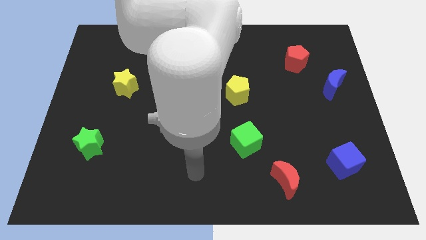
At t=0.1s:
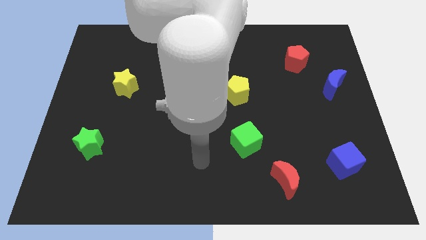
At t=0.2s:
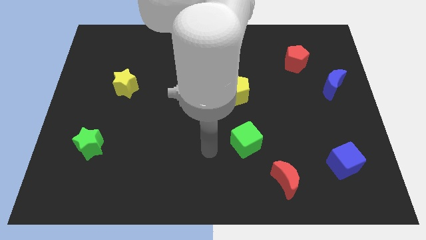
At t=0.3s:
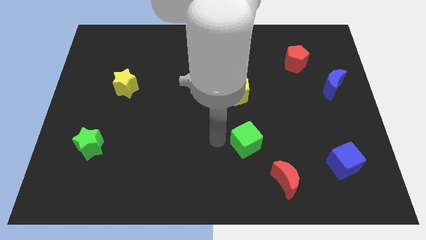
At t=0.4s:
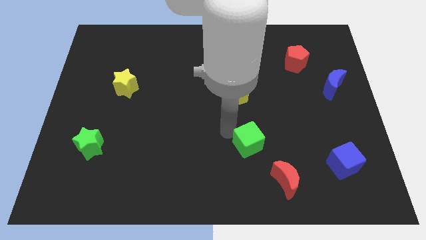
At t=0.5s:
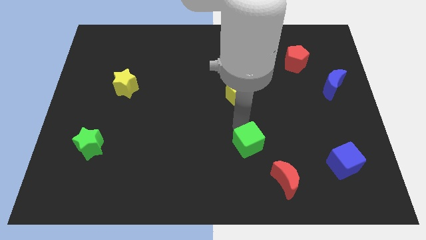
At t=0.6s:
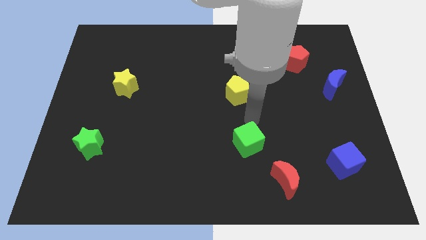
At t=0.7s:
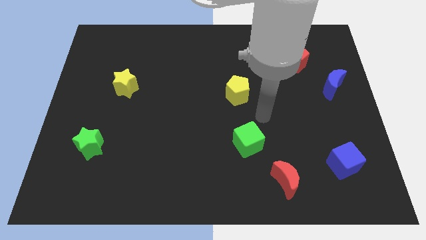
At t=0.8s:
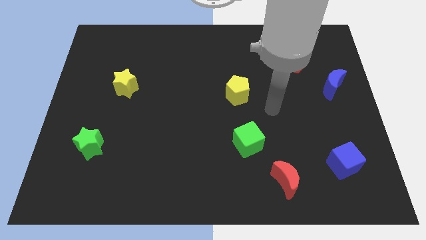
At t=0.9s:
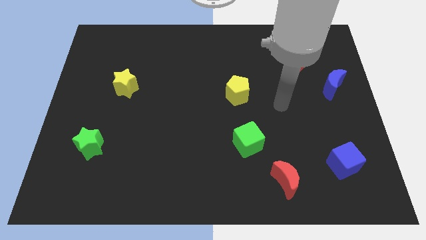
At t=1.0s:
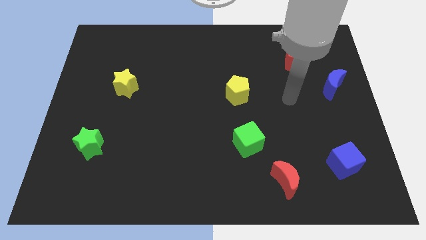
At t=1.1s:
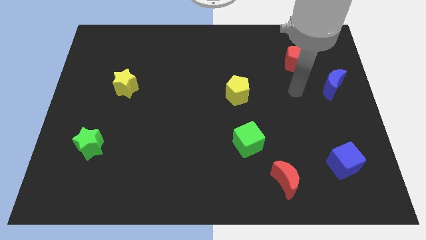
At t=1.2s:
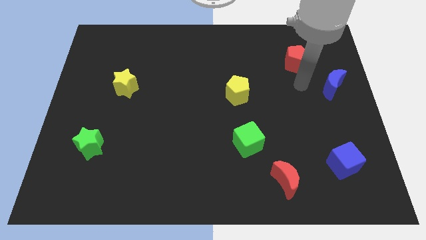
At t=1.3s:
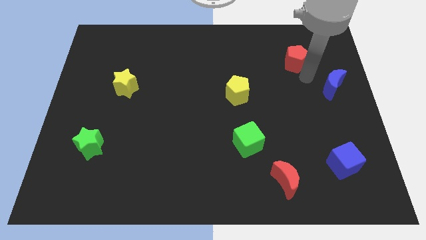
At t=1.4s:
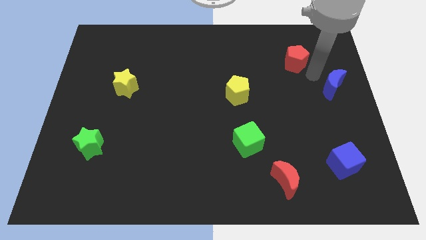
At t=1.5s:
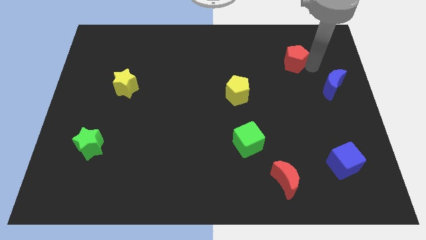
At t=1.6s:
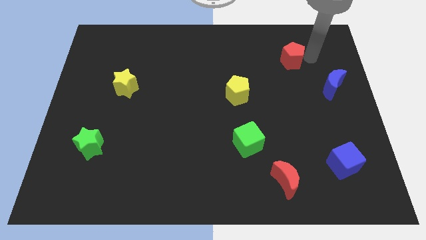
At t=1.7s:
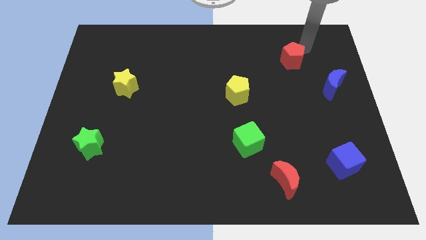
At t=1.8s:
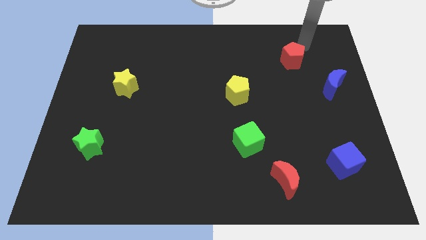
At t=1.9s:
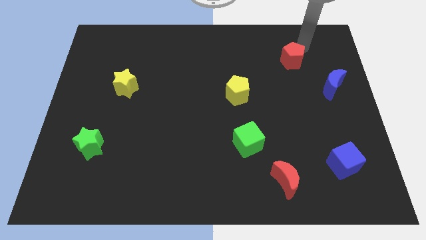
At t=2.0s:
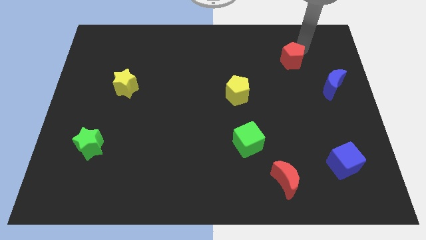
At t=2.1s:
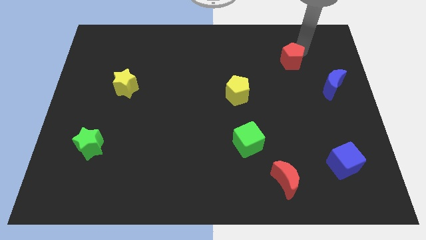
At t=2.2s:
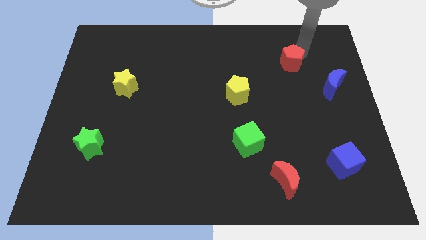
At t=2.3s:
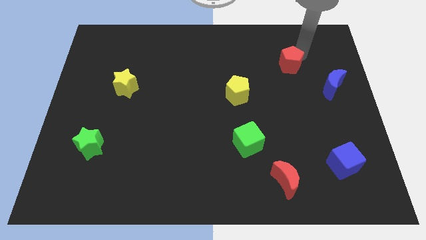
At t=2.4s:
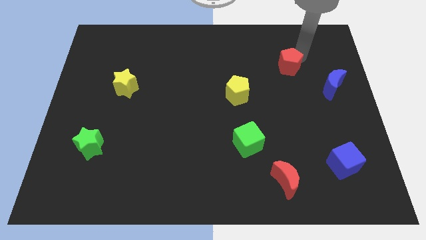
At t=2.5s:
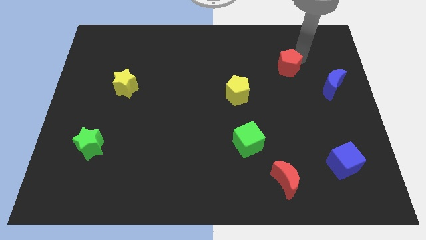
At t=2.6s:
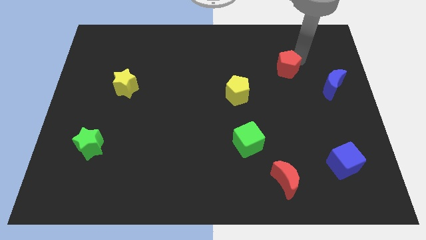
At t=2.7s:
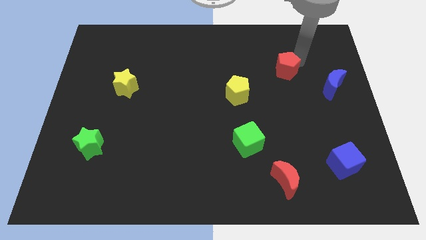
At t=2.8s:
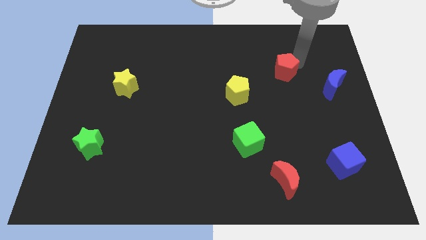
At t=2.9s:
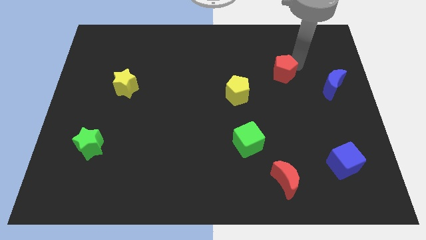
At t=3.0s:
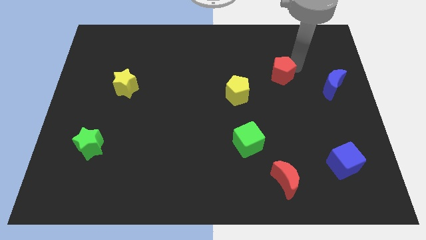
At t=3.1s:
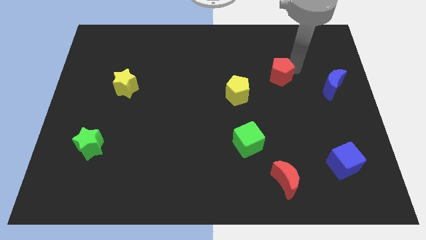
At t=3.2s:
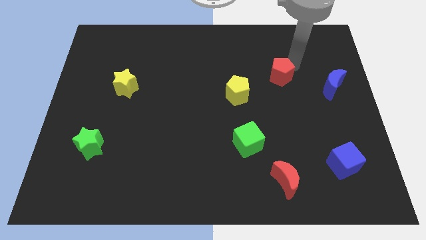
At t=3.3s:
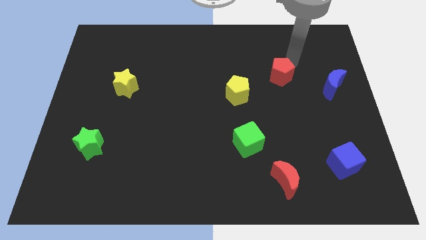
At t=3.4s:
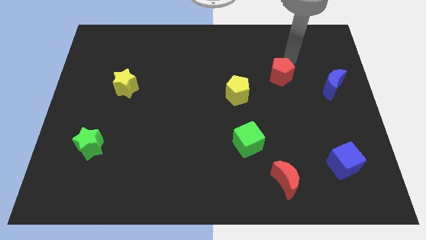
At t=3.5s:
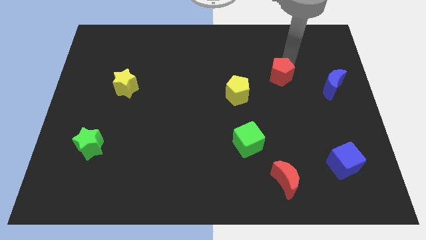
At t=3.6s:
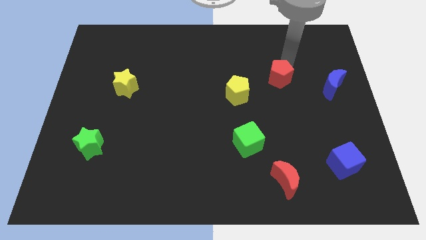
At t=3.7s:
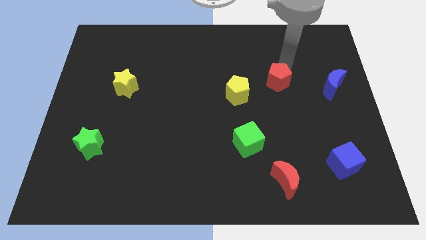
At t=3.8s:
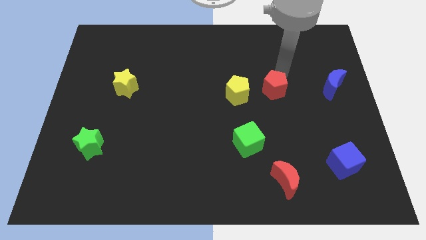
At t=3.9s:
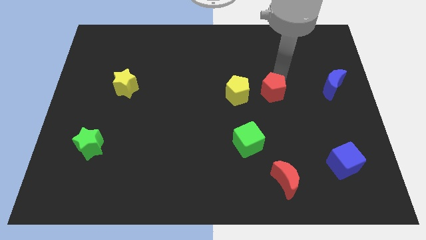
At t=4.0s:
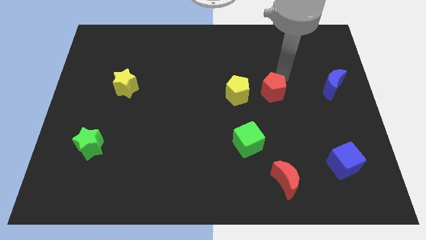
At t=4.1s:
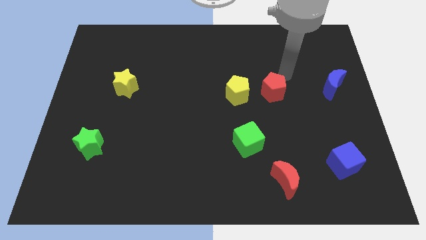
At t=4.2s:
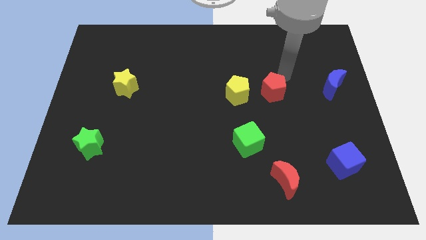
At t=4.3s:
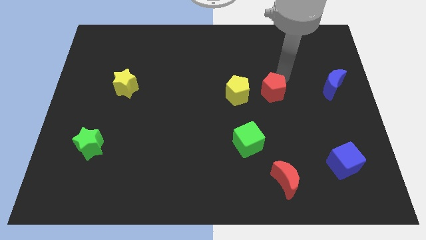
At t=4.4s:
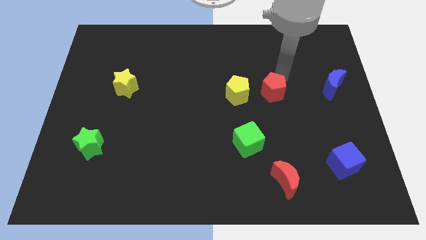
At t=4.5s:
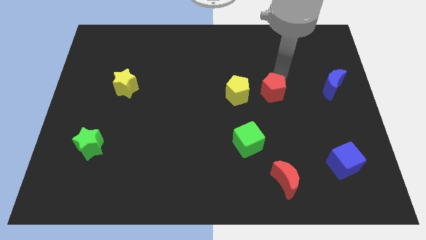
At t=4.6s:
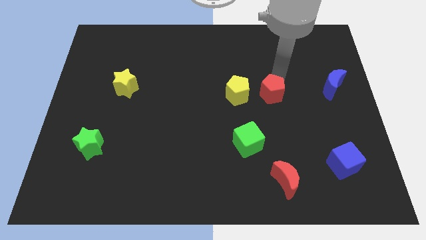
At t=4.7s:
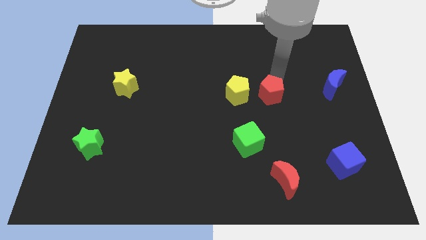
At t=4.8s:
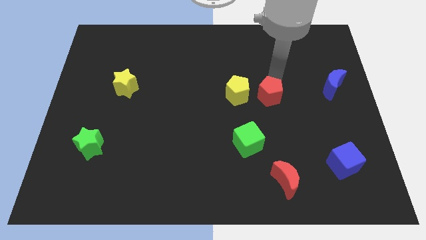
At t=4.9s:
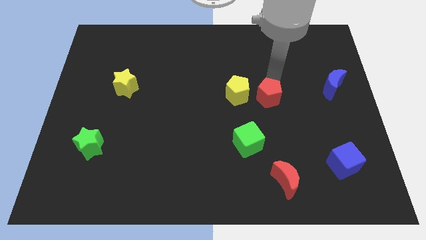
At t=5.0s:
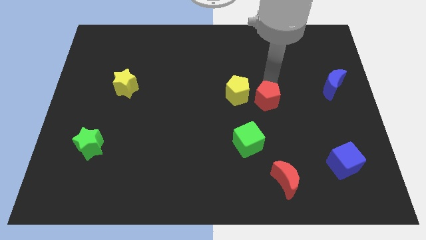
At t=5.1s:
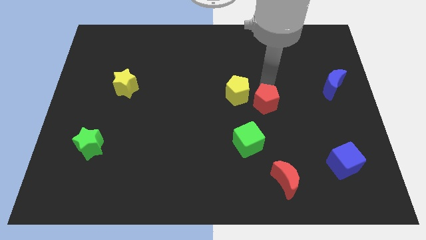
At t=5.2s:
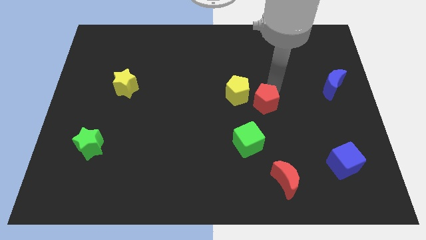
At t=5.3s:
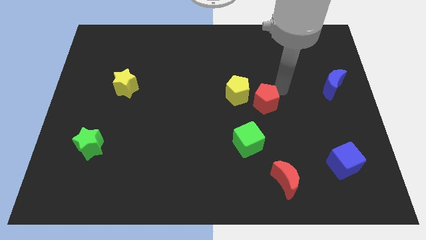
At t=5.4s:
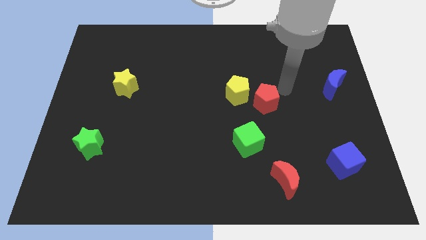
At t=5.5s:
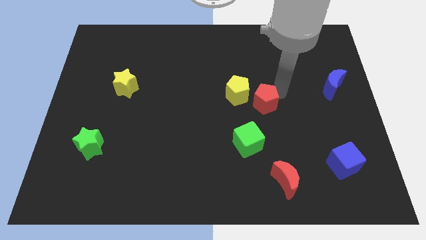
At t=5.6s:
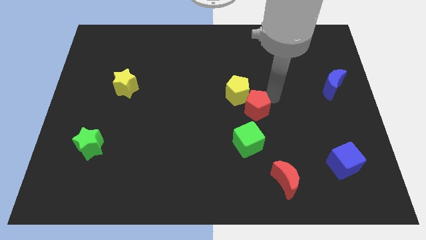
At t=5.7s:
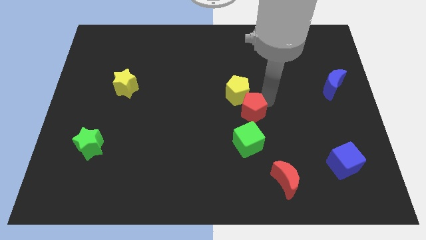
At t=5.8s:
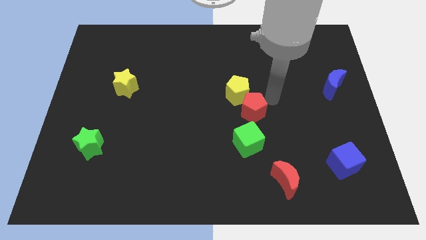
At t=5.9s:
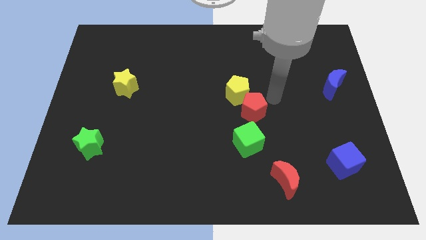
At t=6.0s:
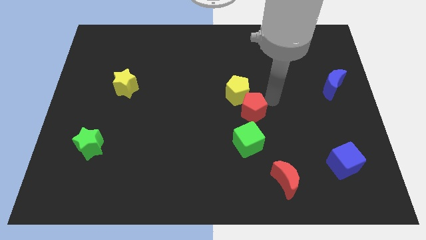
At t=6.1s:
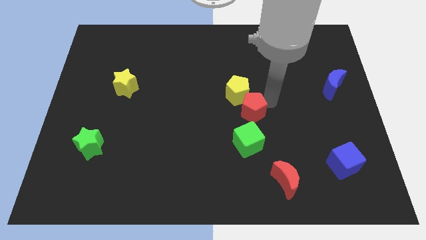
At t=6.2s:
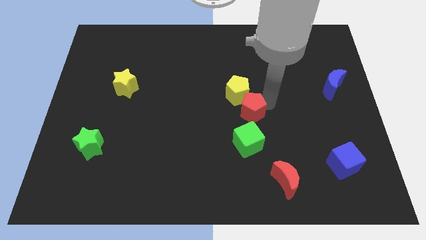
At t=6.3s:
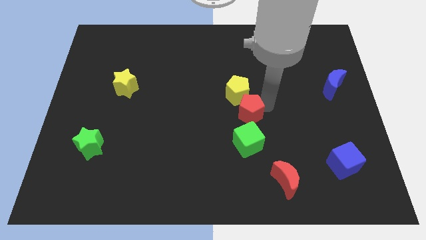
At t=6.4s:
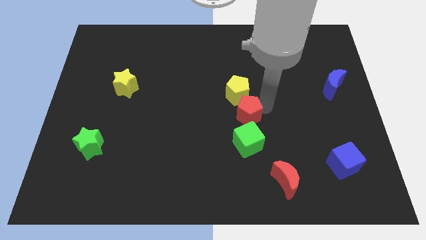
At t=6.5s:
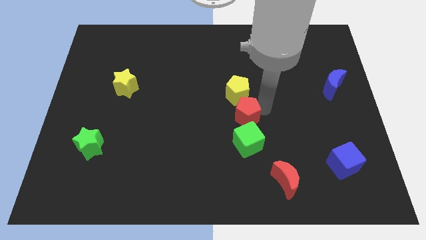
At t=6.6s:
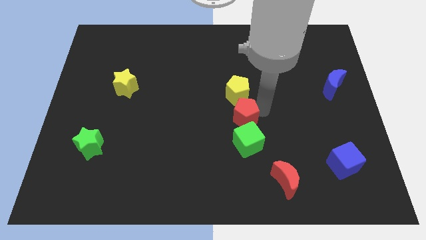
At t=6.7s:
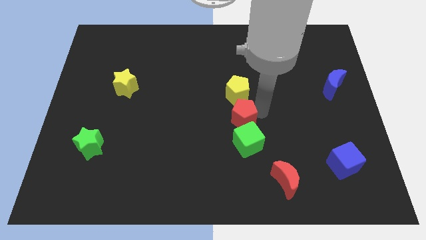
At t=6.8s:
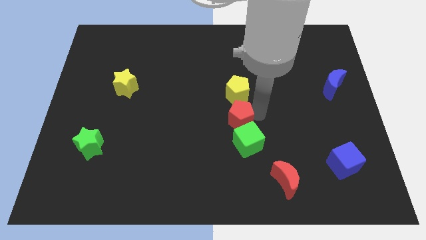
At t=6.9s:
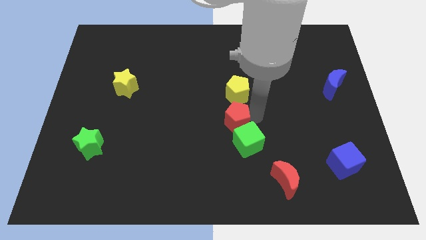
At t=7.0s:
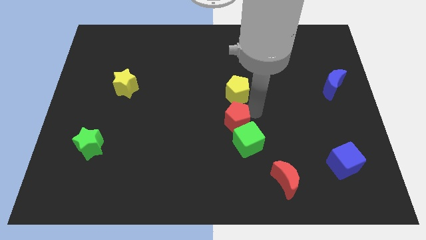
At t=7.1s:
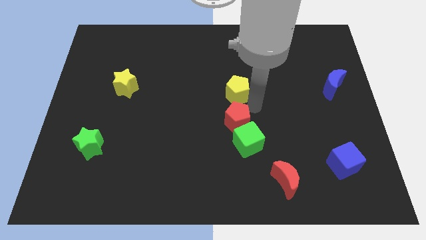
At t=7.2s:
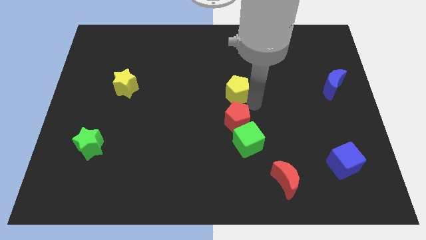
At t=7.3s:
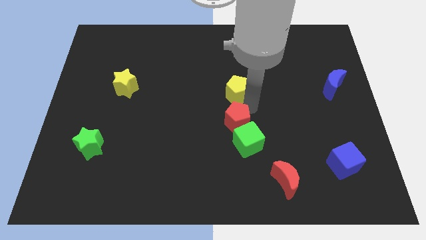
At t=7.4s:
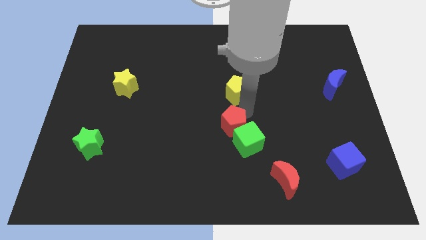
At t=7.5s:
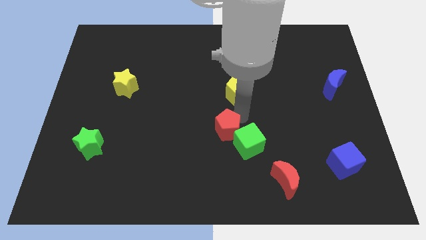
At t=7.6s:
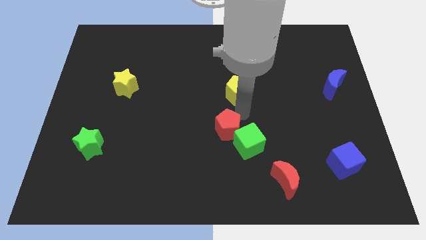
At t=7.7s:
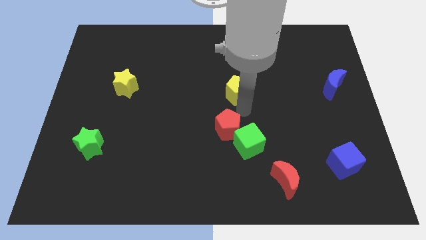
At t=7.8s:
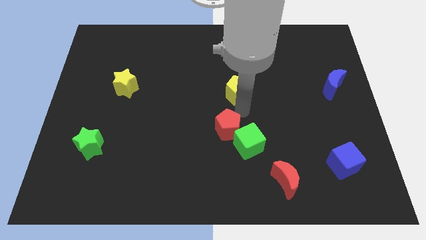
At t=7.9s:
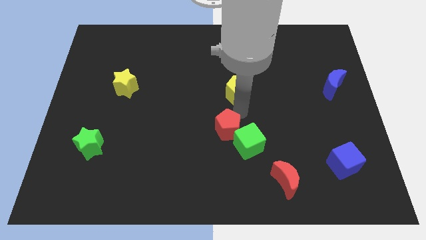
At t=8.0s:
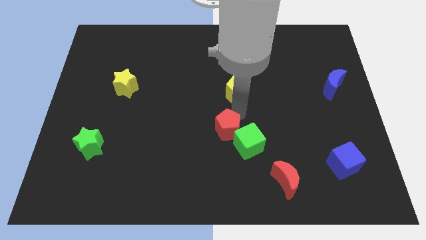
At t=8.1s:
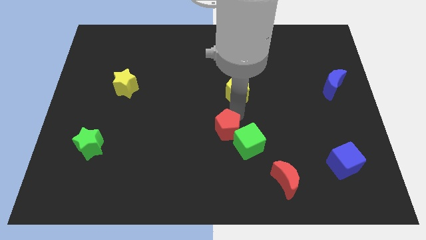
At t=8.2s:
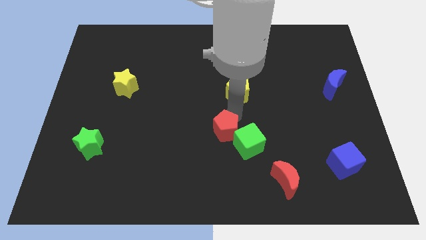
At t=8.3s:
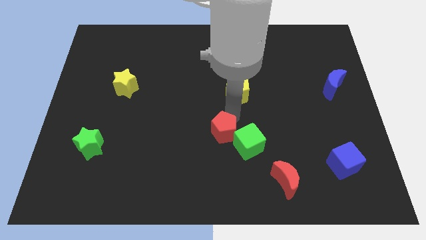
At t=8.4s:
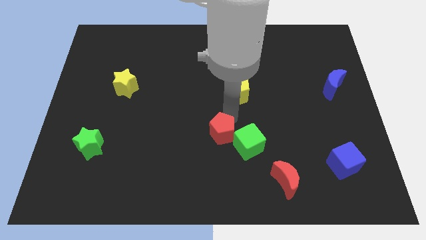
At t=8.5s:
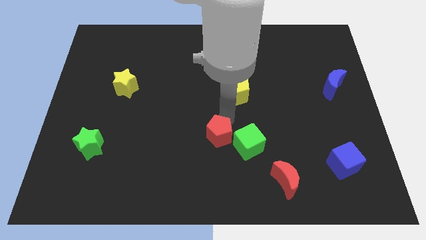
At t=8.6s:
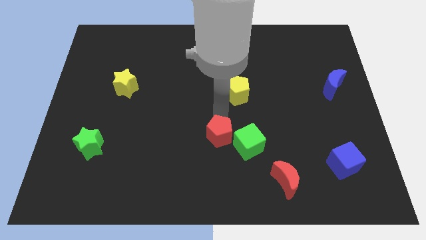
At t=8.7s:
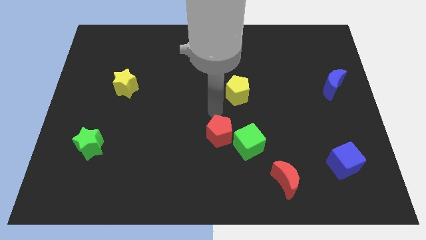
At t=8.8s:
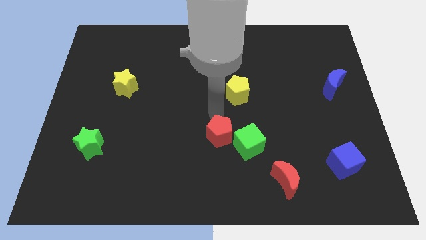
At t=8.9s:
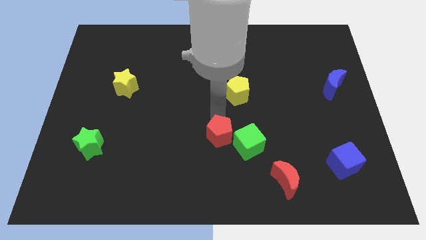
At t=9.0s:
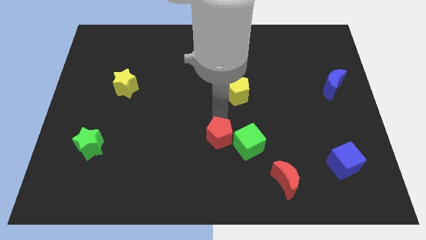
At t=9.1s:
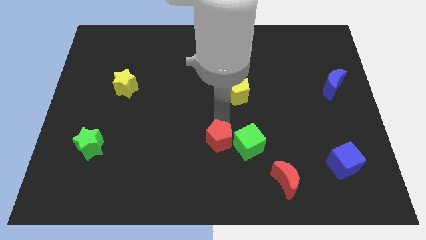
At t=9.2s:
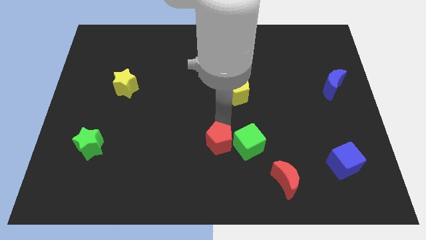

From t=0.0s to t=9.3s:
push the red pentagon diagonally down and to the left of the green cube
